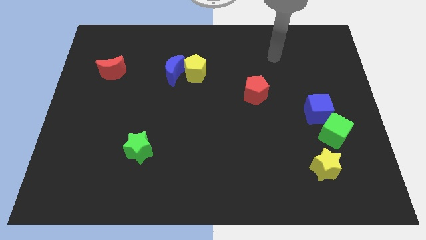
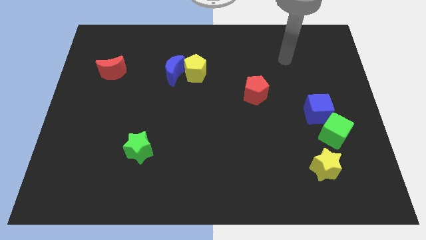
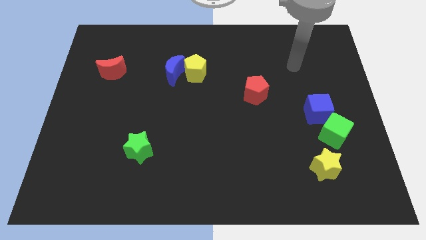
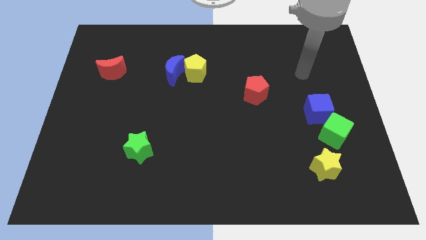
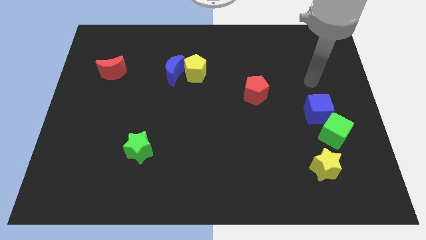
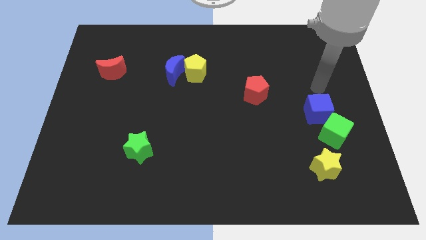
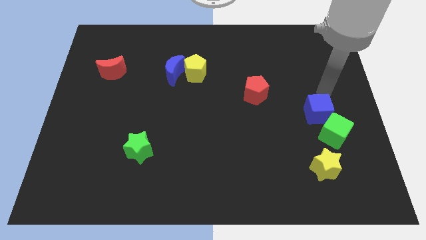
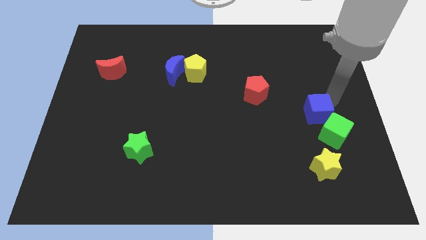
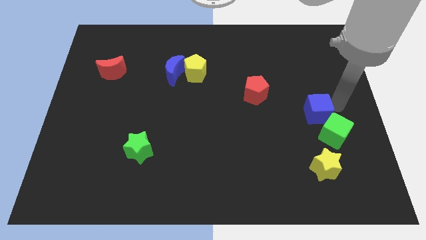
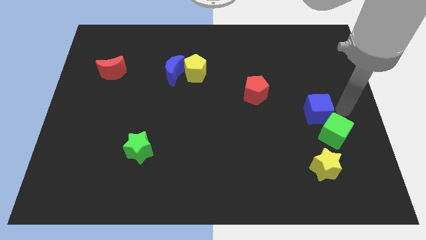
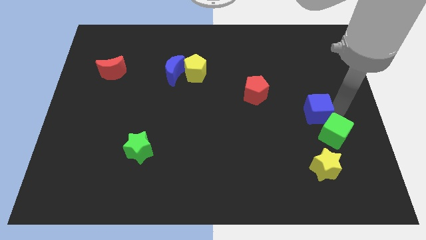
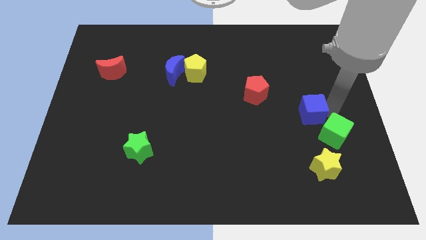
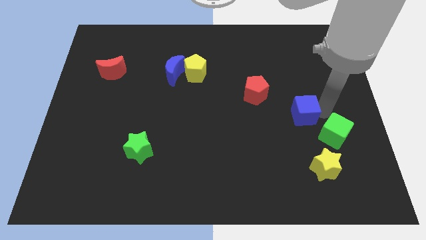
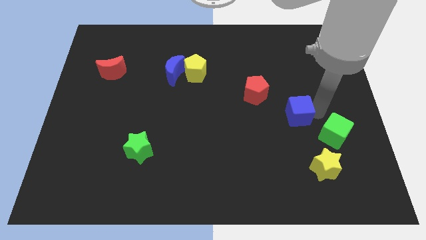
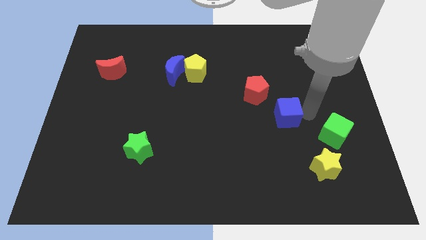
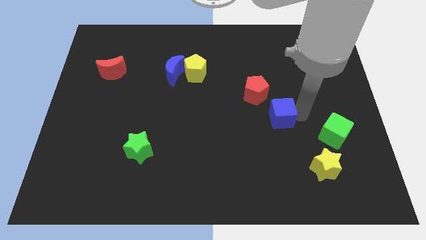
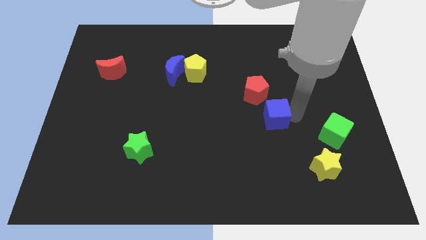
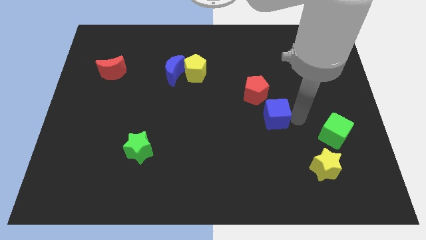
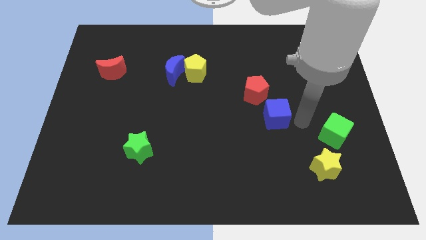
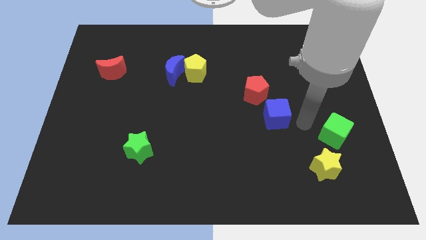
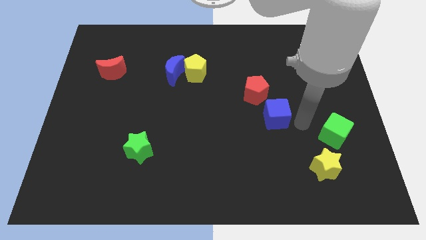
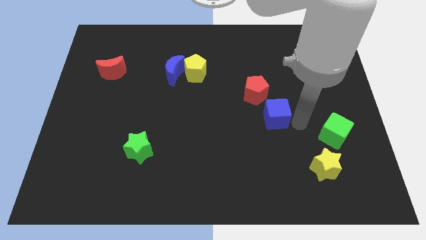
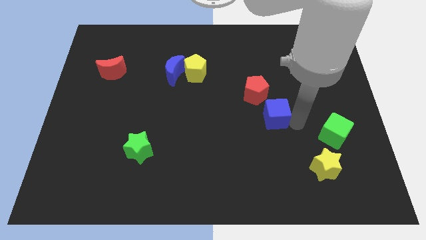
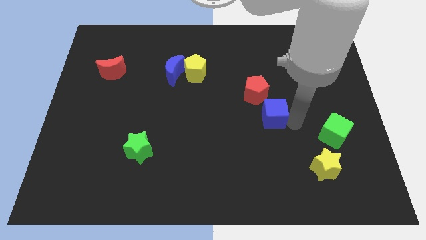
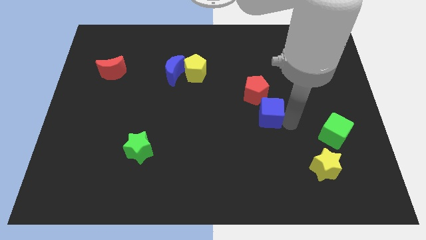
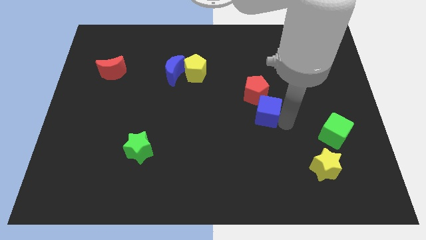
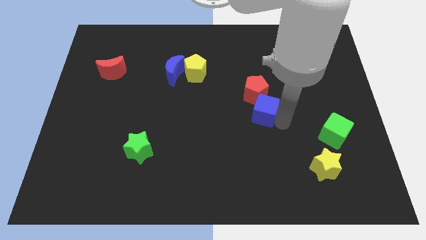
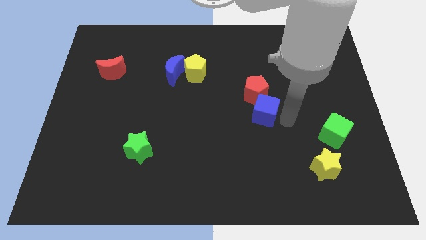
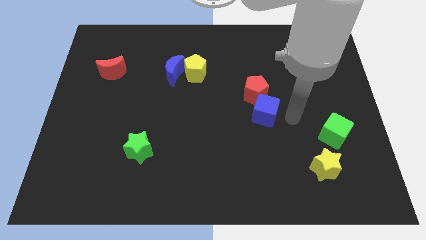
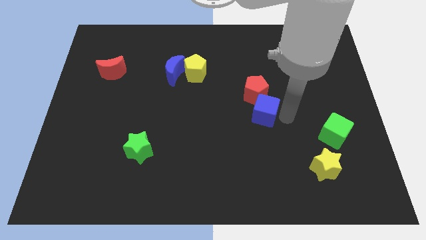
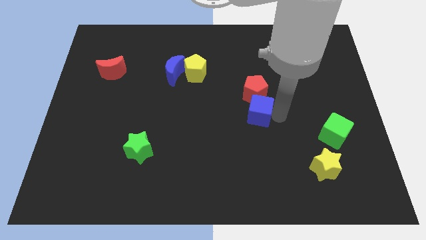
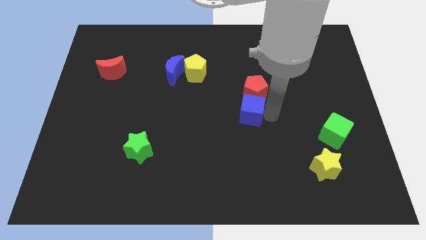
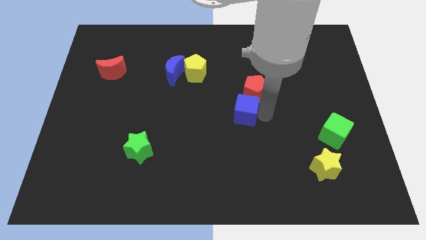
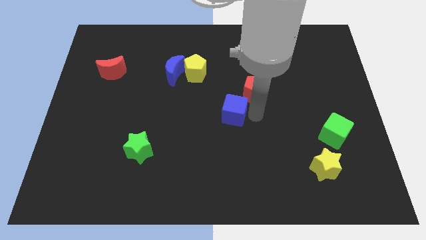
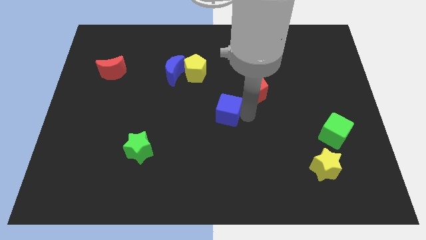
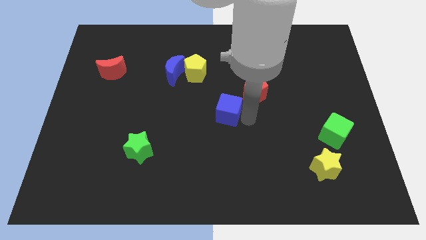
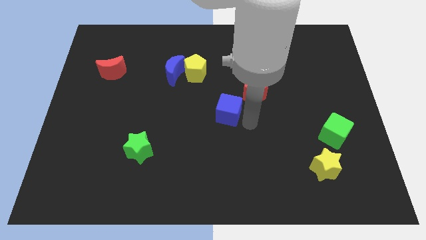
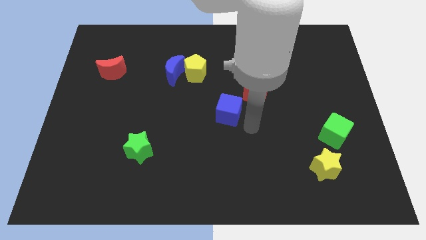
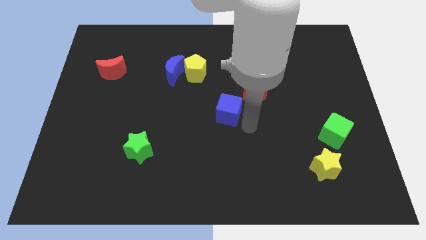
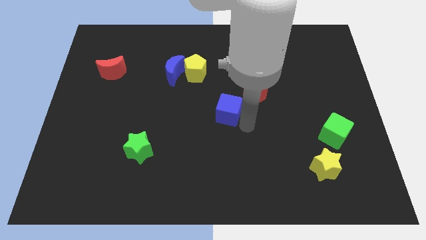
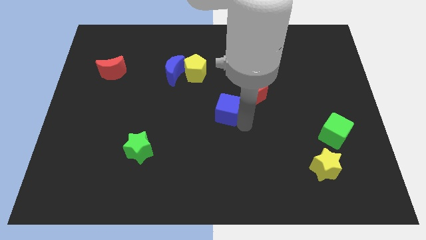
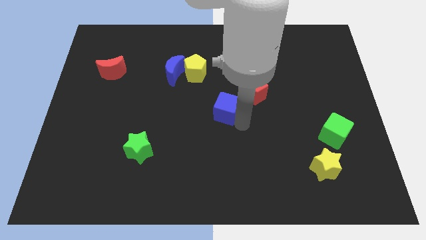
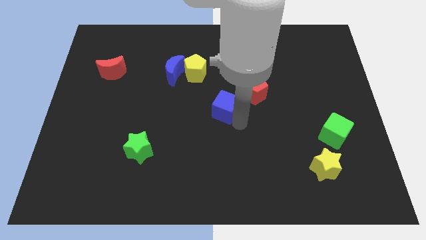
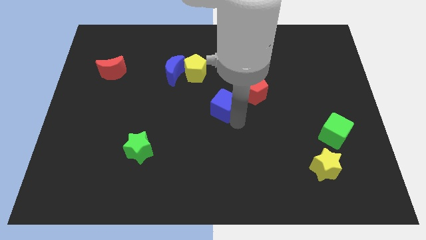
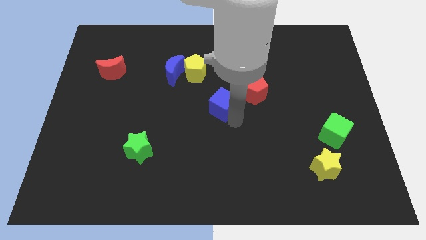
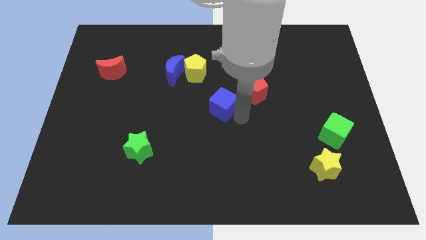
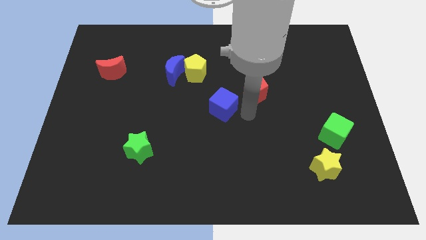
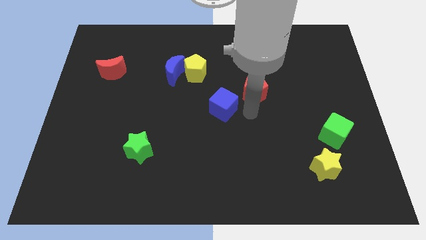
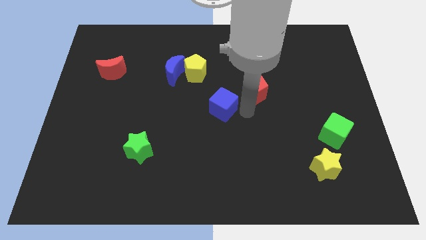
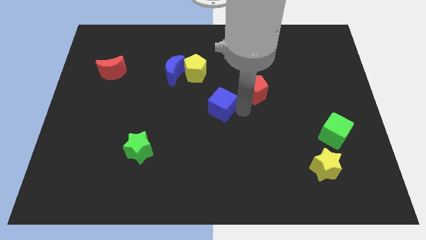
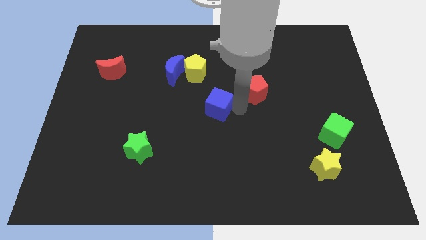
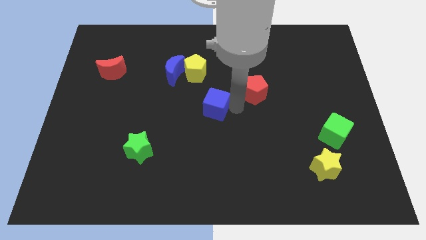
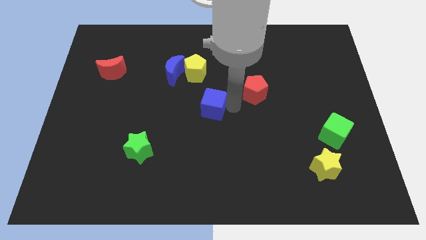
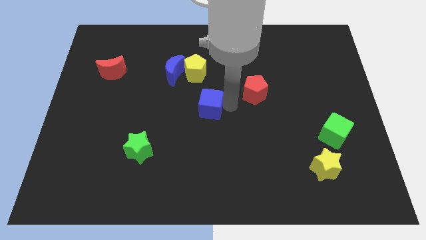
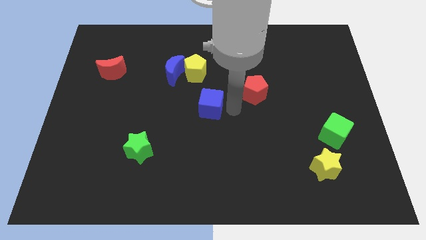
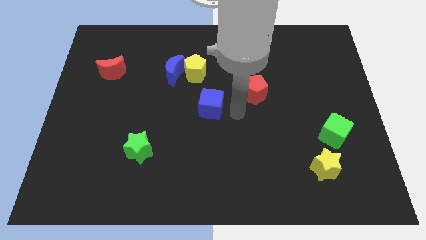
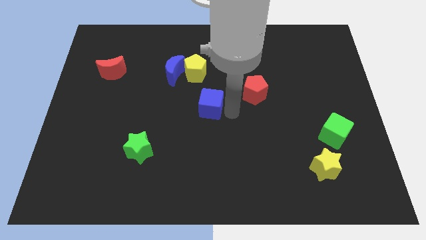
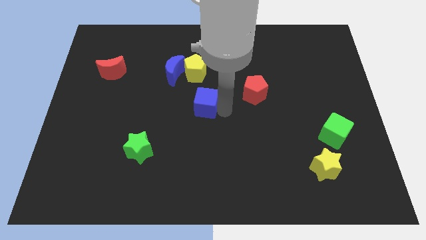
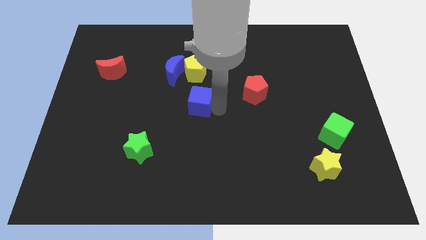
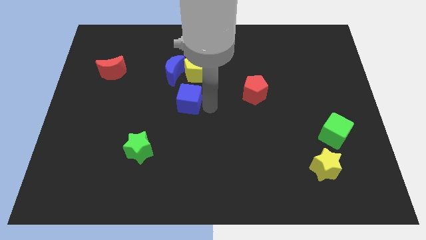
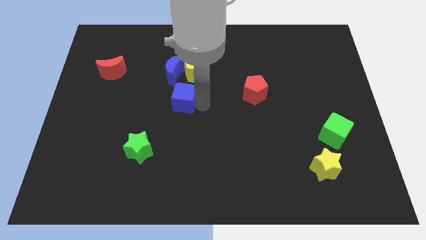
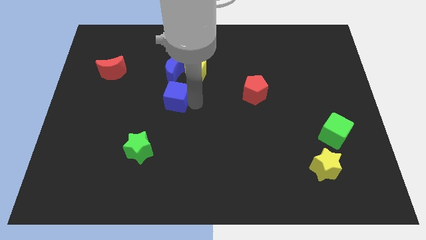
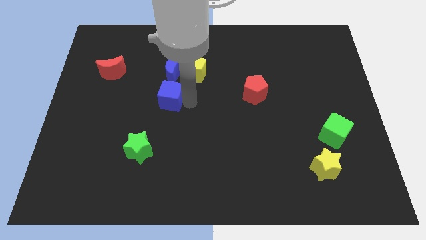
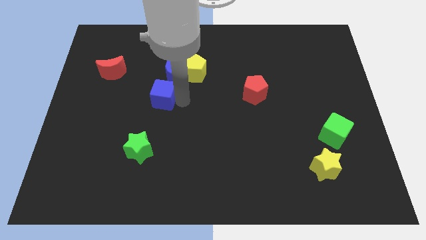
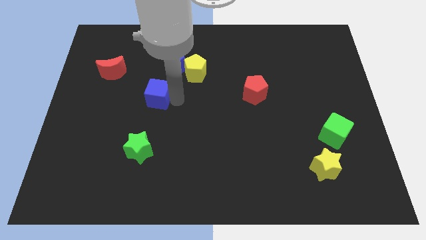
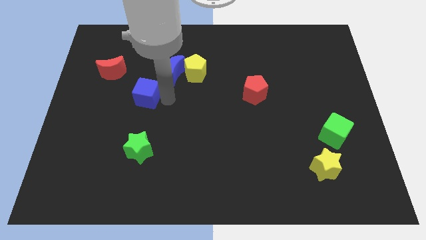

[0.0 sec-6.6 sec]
push the blue cube to the bottom right of the red moon

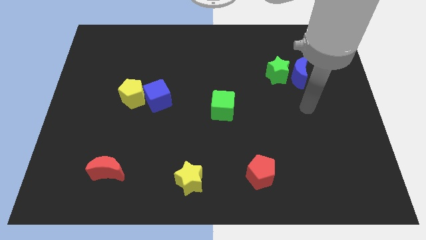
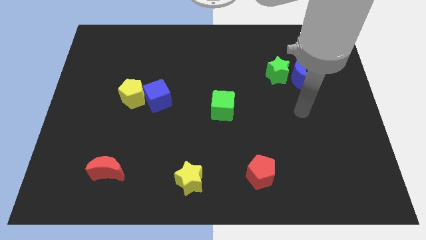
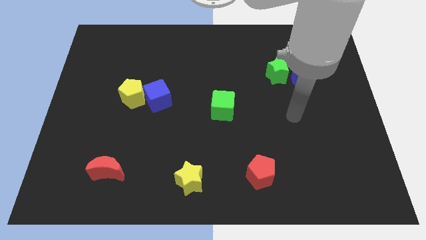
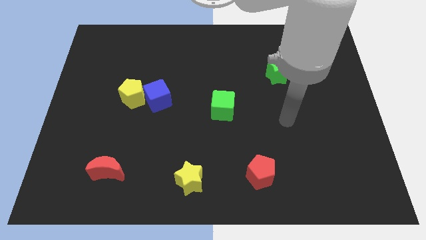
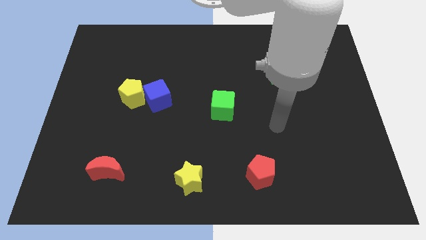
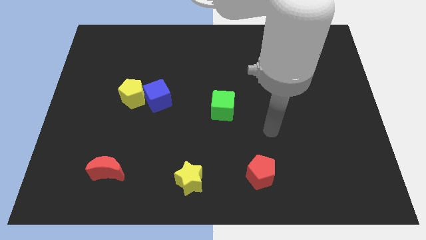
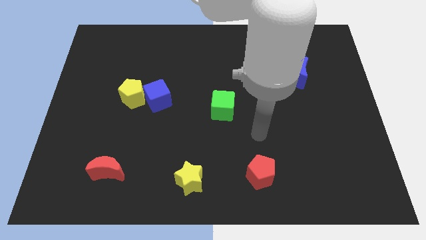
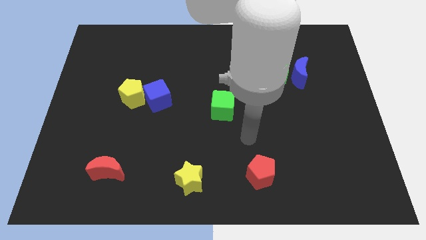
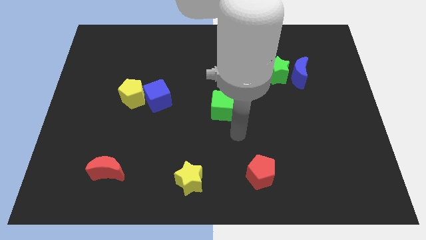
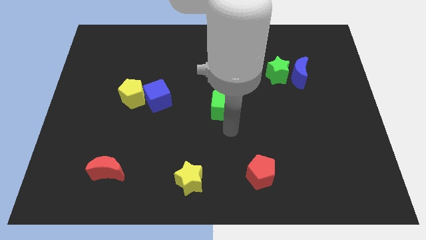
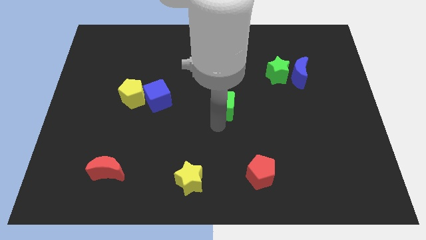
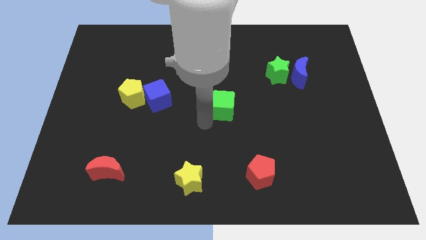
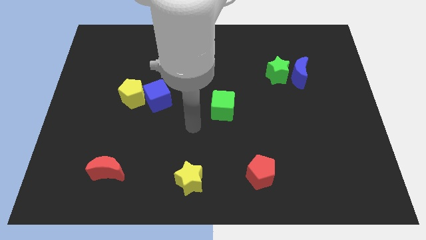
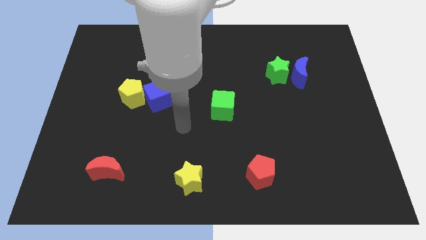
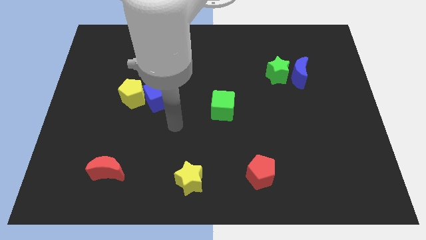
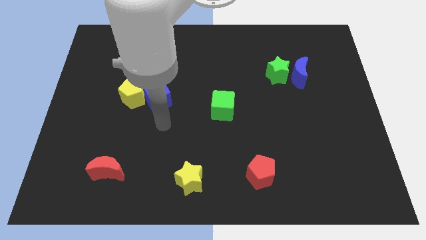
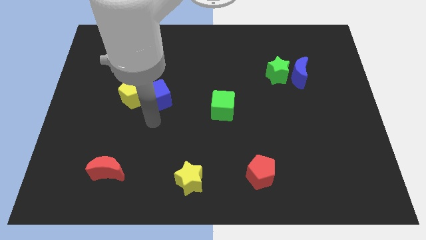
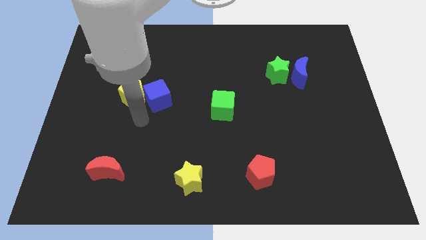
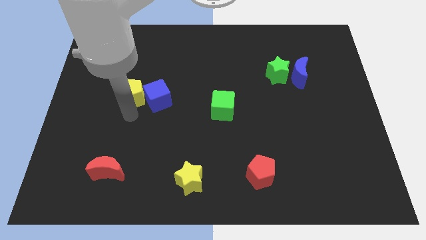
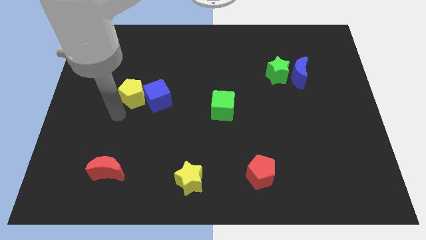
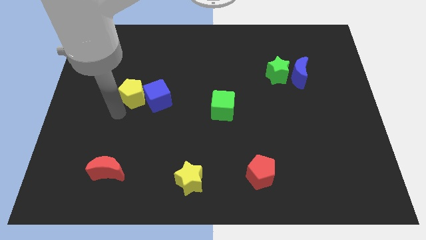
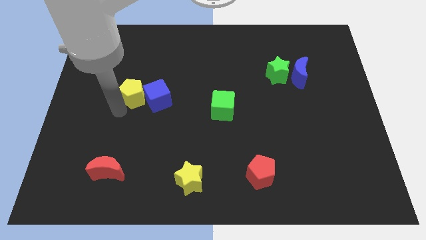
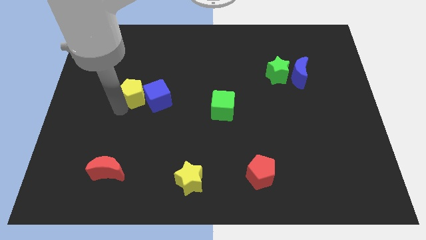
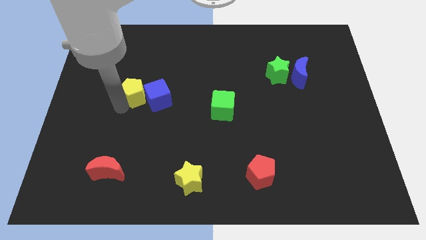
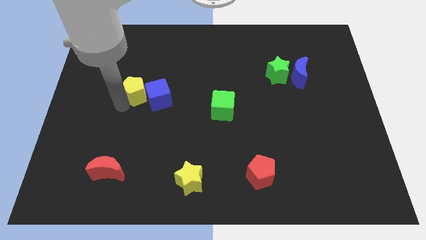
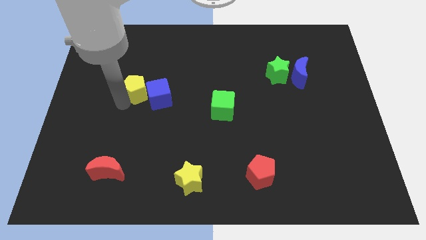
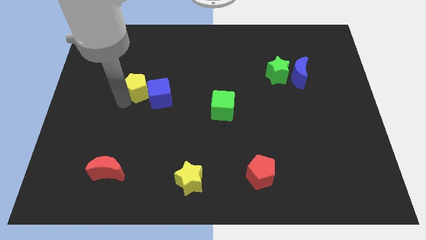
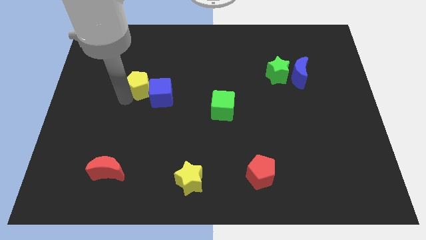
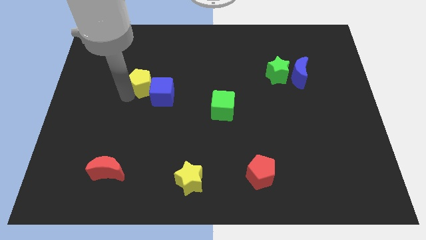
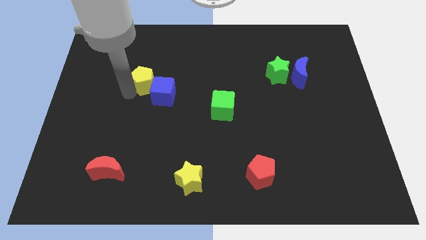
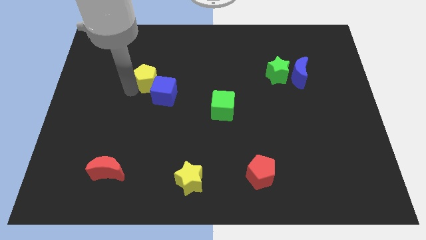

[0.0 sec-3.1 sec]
move the yellow pentagon to the top of the blue cube
